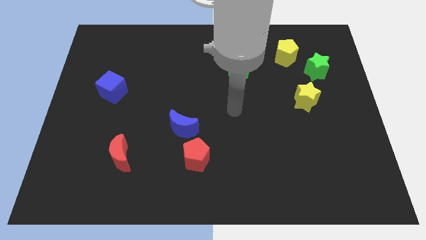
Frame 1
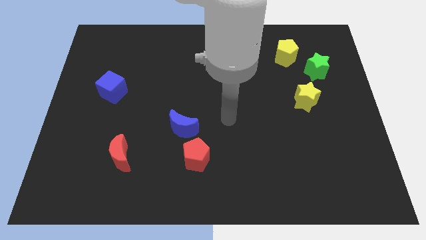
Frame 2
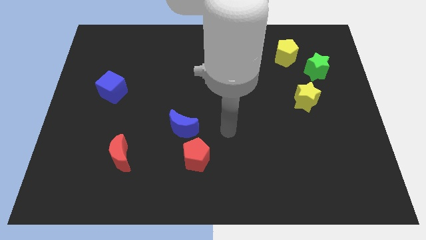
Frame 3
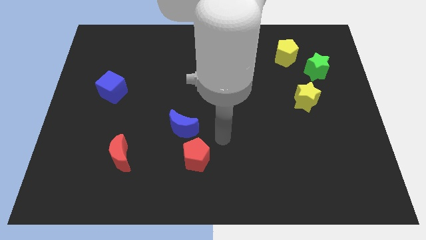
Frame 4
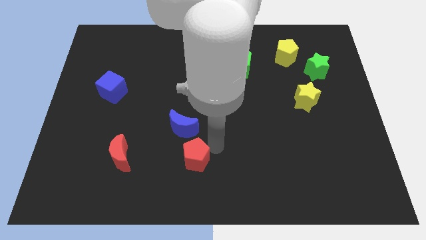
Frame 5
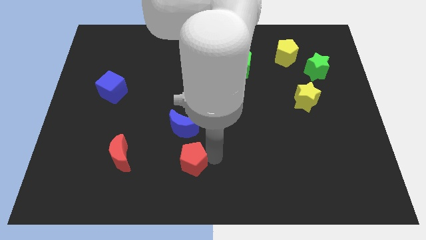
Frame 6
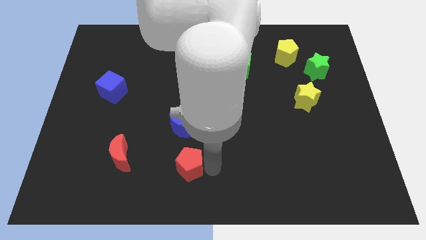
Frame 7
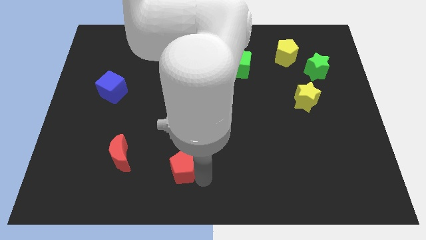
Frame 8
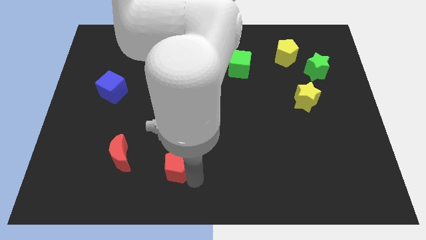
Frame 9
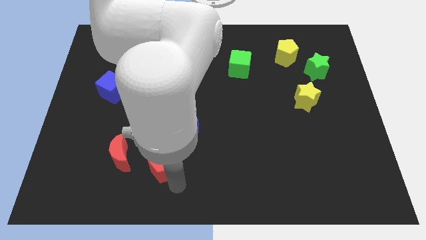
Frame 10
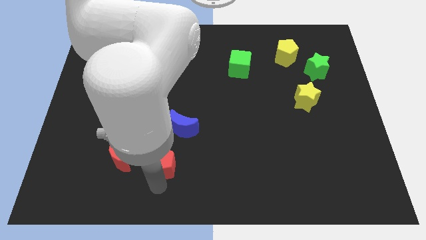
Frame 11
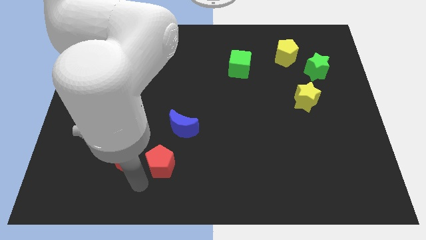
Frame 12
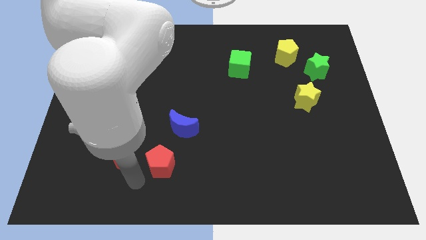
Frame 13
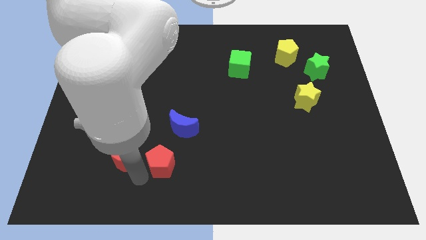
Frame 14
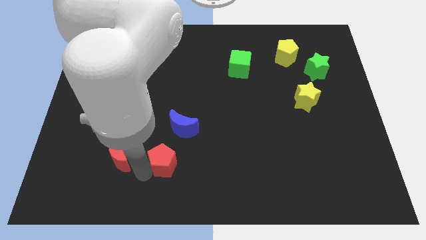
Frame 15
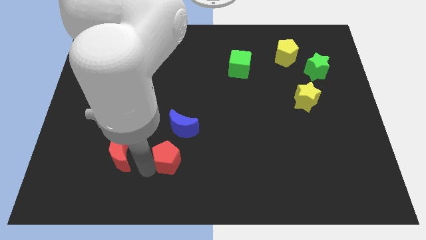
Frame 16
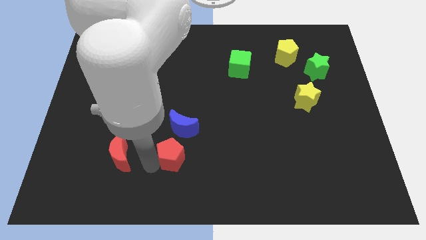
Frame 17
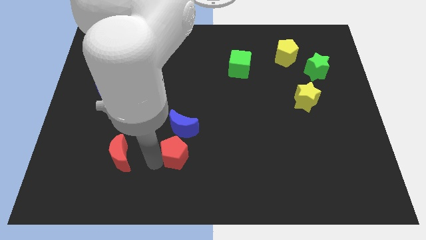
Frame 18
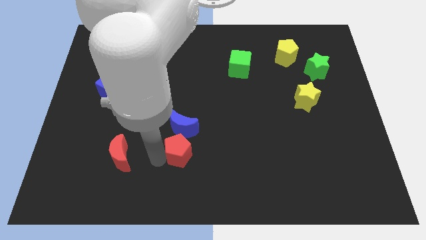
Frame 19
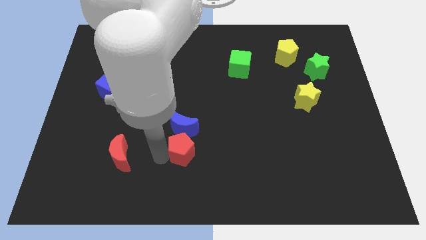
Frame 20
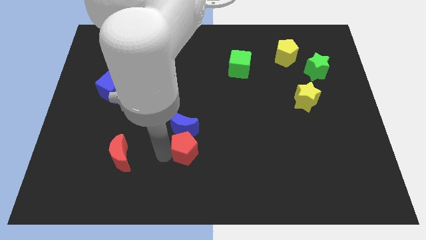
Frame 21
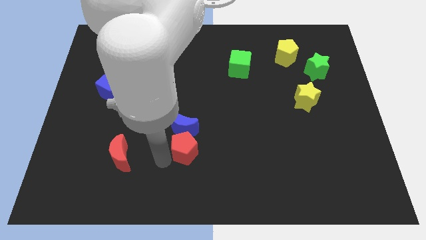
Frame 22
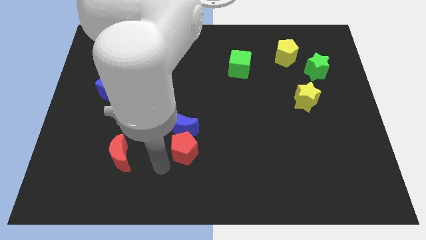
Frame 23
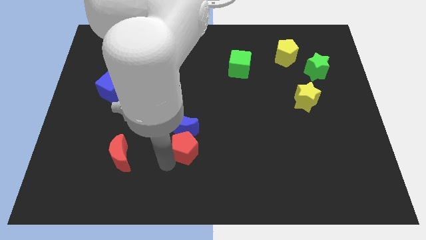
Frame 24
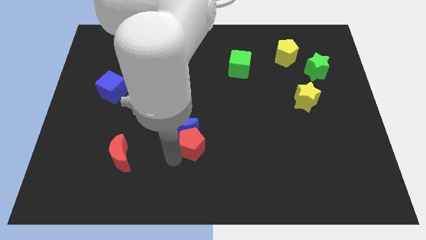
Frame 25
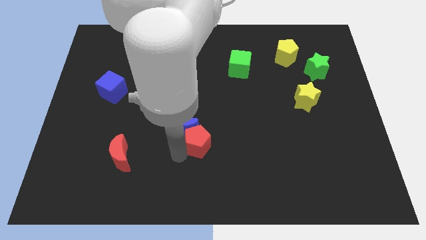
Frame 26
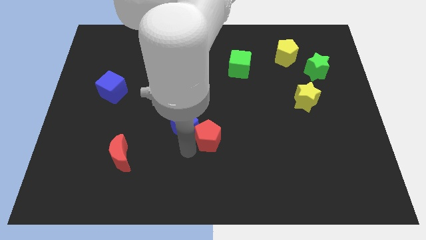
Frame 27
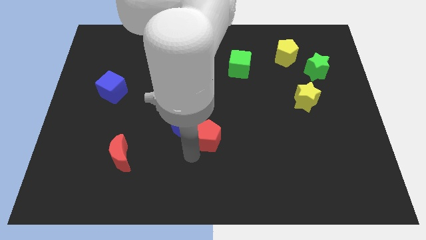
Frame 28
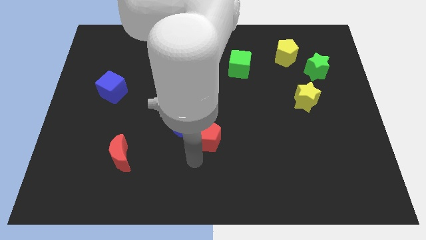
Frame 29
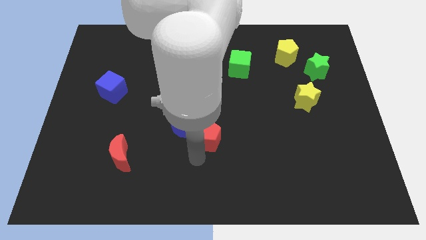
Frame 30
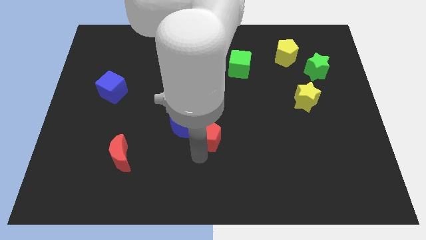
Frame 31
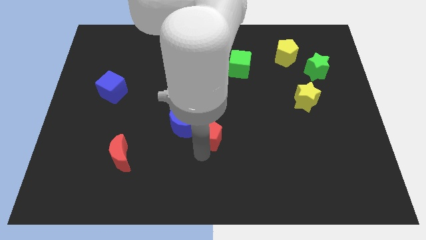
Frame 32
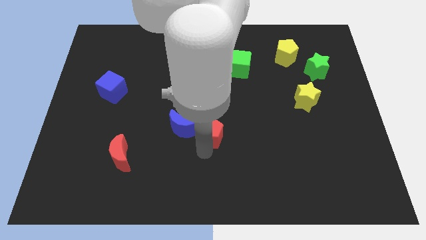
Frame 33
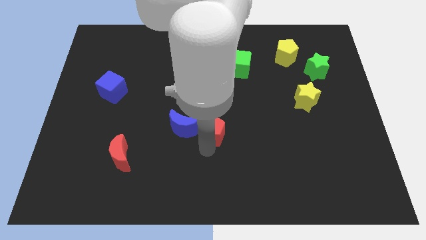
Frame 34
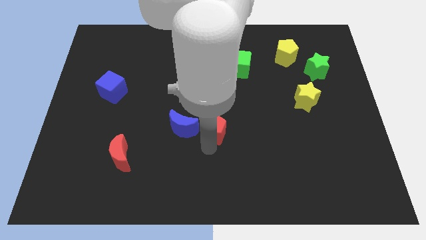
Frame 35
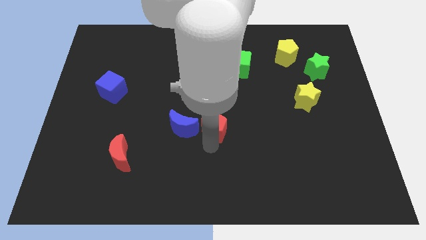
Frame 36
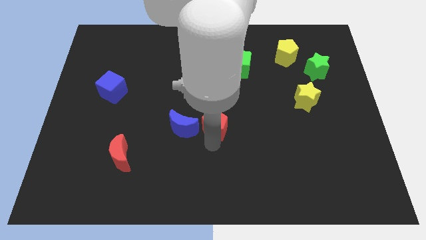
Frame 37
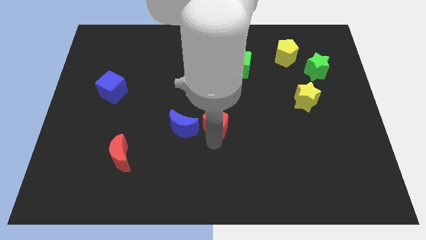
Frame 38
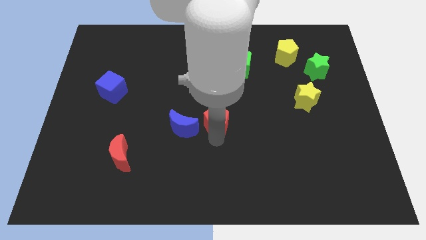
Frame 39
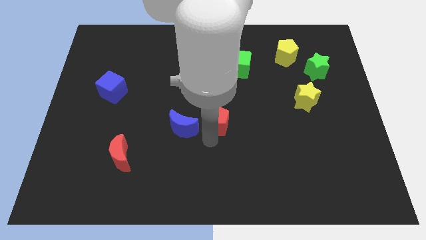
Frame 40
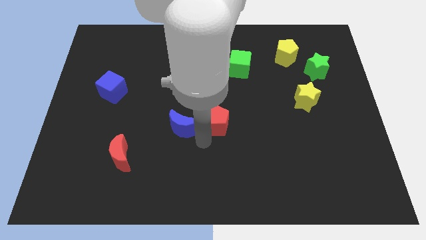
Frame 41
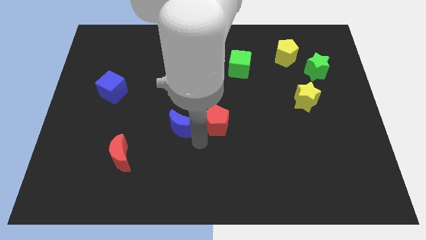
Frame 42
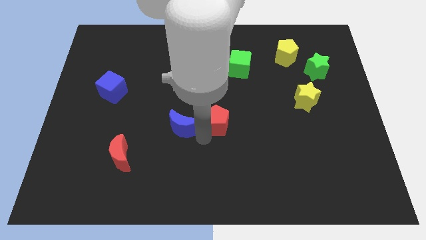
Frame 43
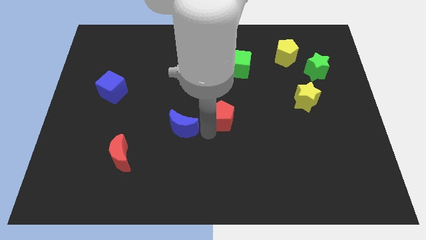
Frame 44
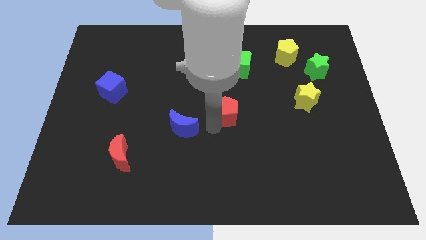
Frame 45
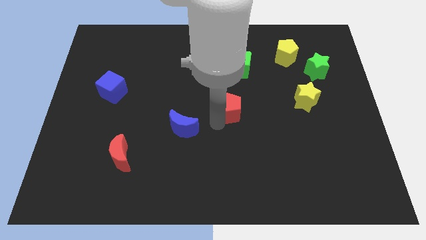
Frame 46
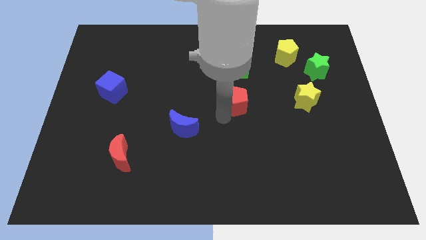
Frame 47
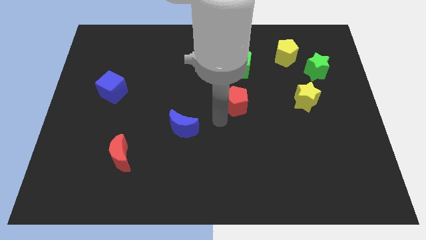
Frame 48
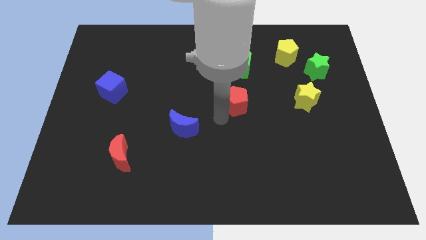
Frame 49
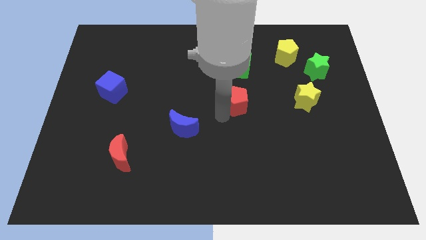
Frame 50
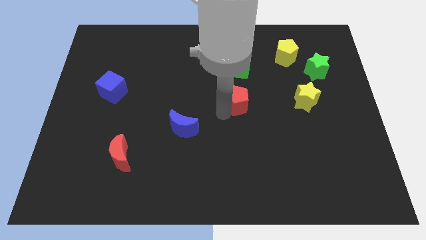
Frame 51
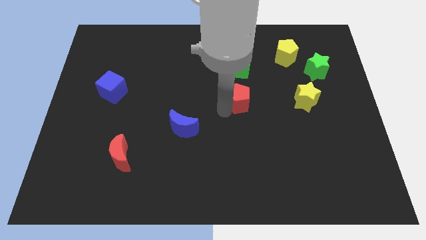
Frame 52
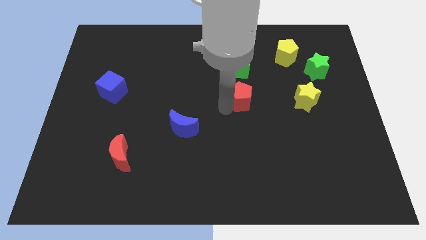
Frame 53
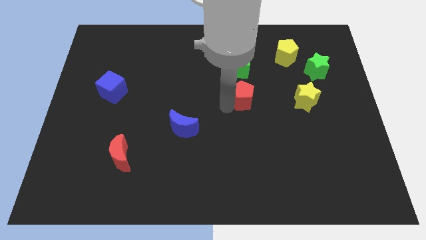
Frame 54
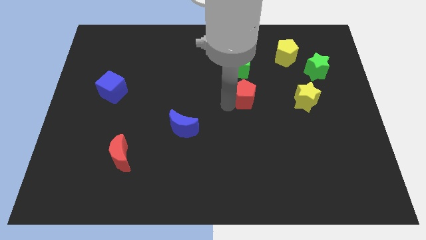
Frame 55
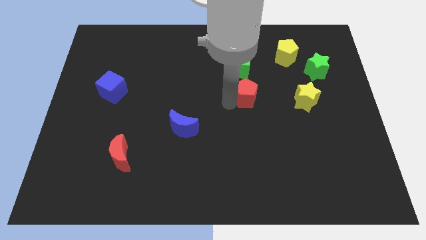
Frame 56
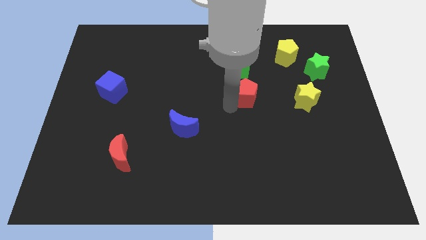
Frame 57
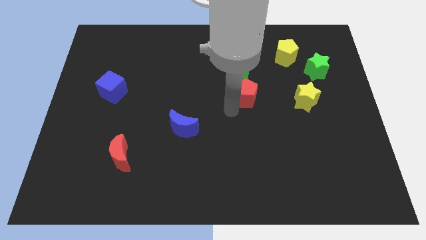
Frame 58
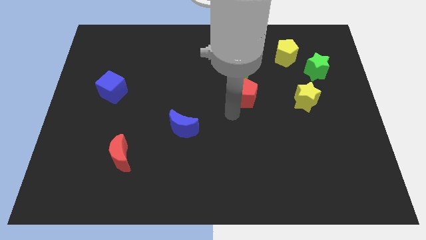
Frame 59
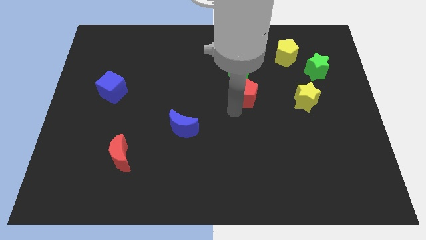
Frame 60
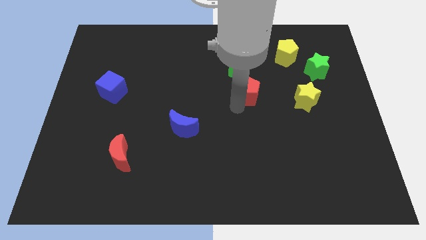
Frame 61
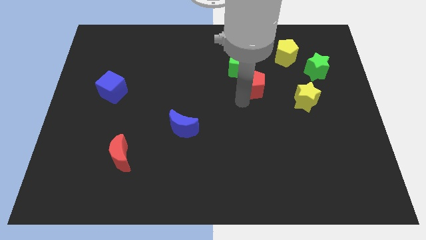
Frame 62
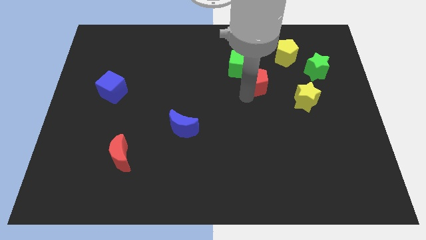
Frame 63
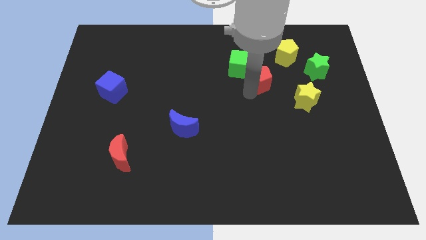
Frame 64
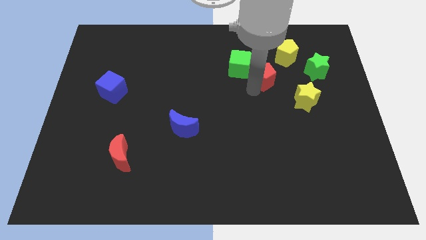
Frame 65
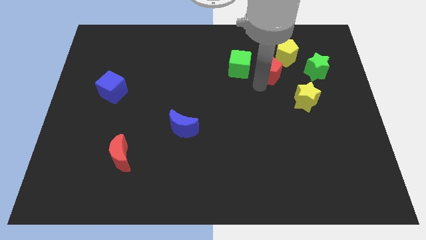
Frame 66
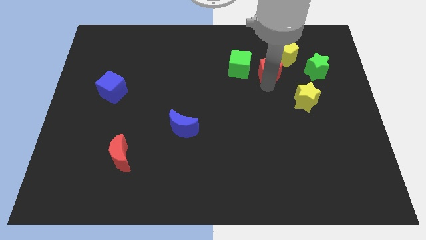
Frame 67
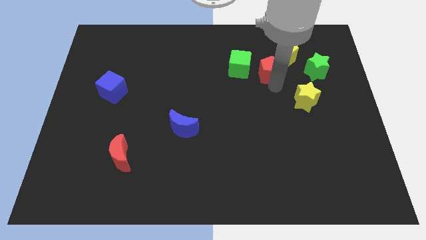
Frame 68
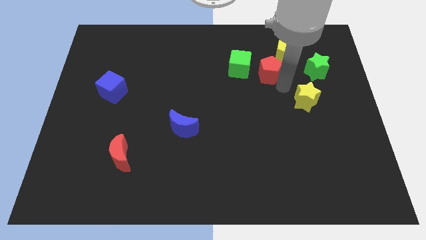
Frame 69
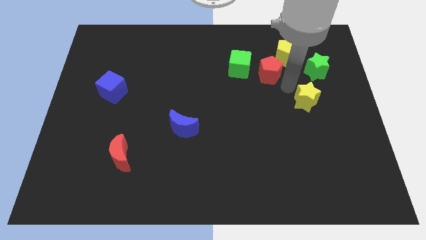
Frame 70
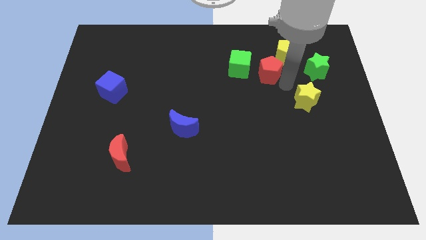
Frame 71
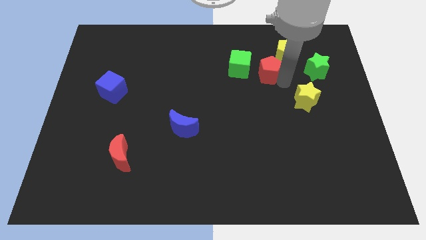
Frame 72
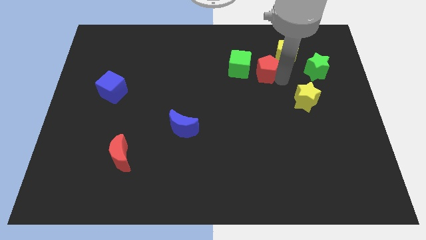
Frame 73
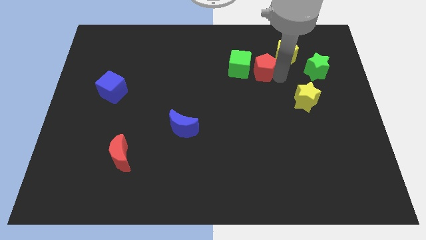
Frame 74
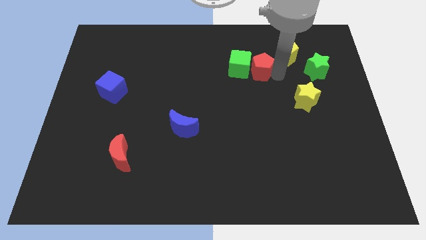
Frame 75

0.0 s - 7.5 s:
move the red pentagon to the left of the yellow pentagon
